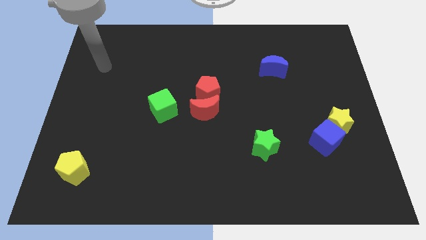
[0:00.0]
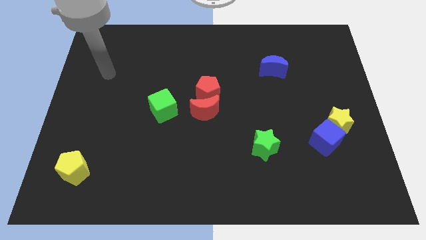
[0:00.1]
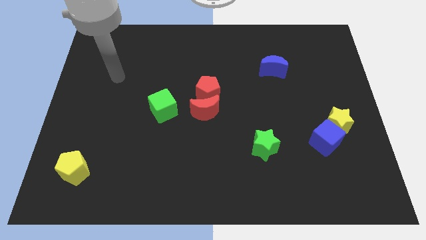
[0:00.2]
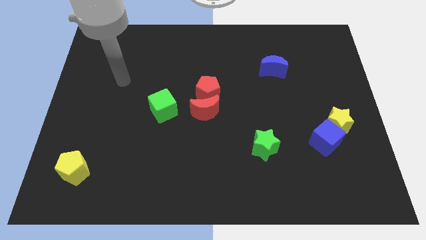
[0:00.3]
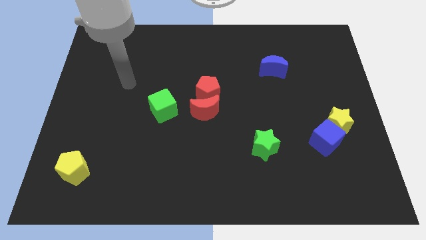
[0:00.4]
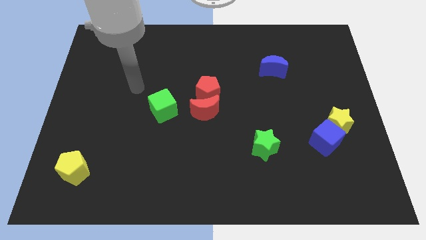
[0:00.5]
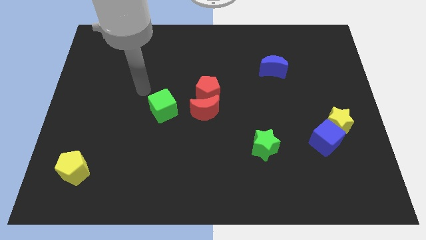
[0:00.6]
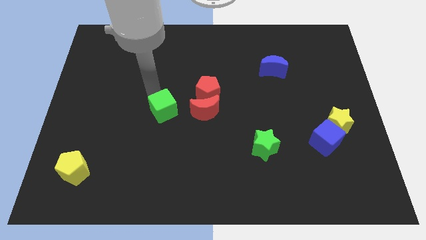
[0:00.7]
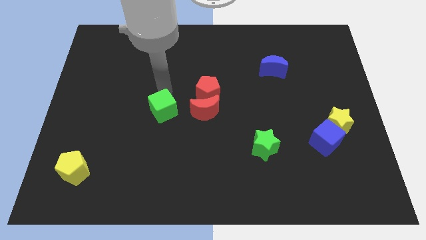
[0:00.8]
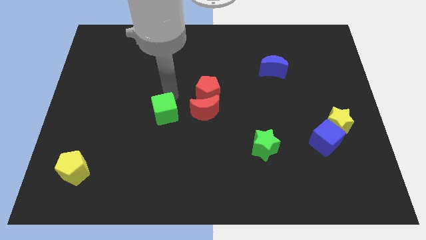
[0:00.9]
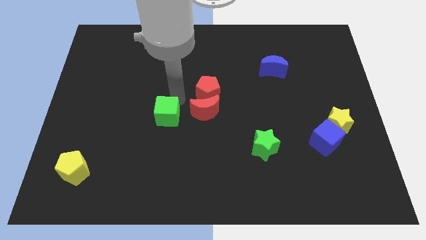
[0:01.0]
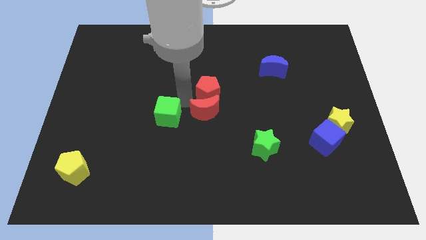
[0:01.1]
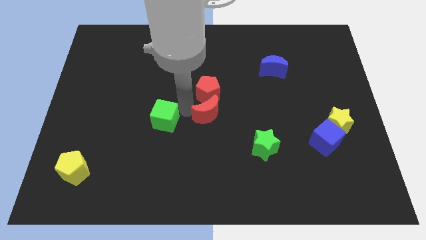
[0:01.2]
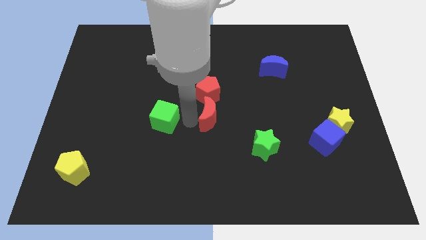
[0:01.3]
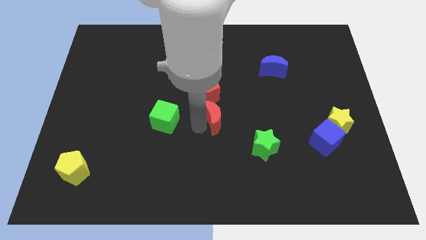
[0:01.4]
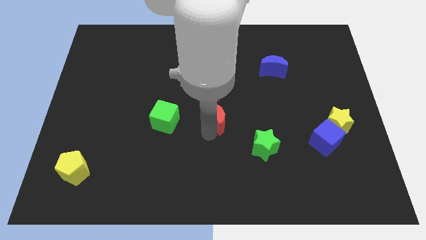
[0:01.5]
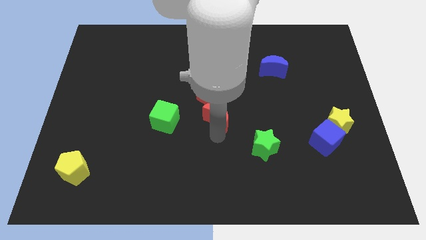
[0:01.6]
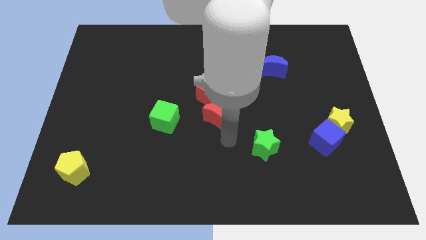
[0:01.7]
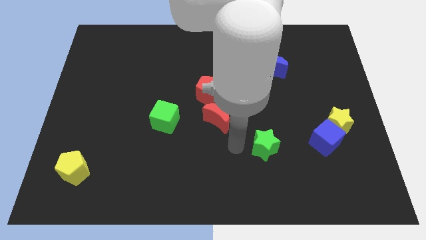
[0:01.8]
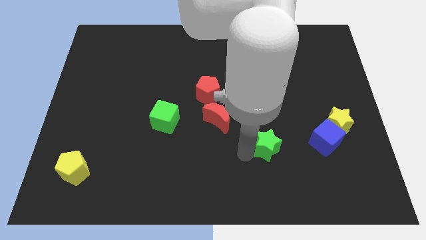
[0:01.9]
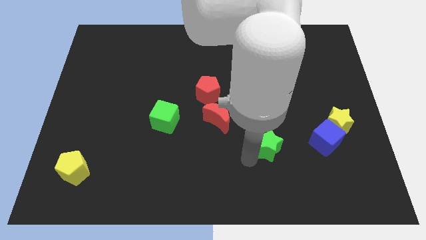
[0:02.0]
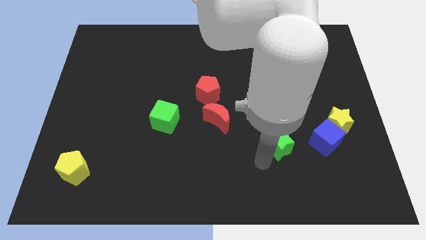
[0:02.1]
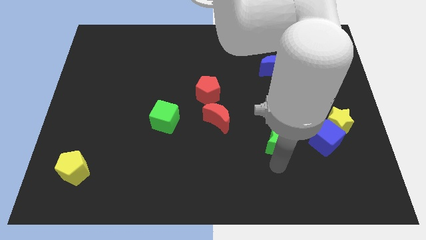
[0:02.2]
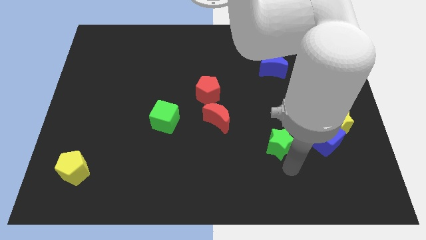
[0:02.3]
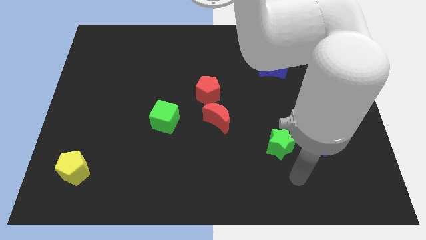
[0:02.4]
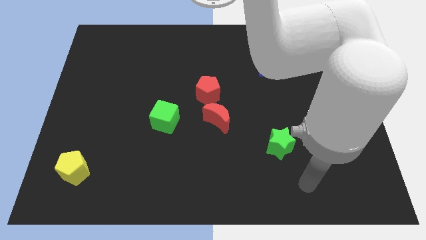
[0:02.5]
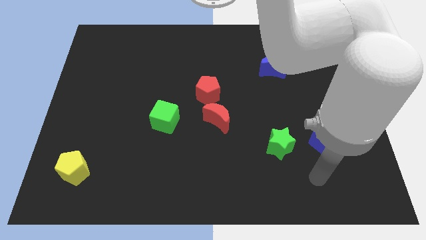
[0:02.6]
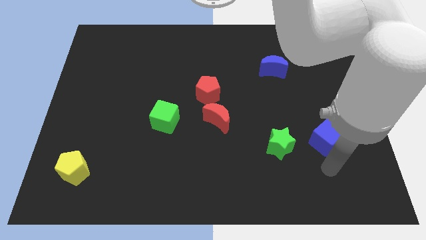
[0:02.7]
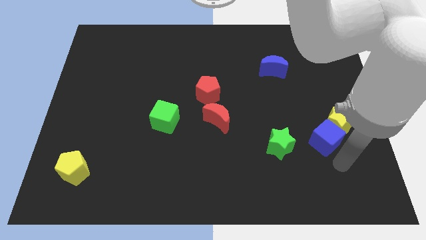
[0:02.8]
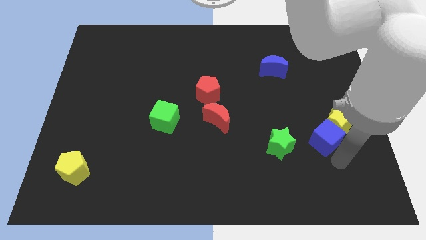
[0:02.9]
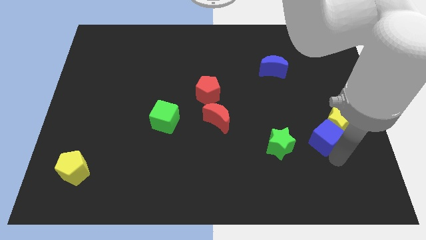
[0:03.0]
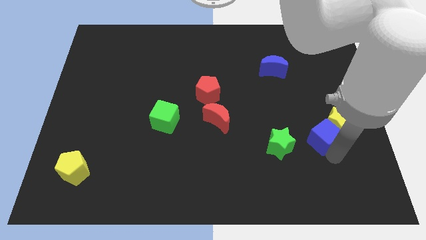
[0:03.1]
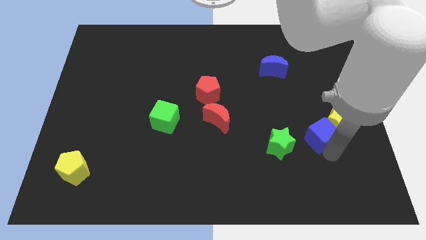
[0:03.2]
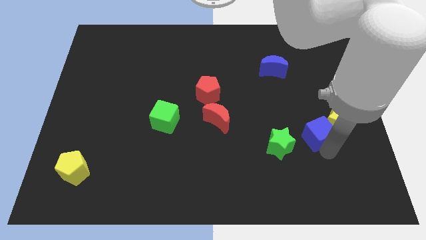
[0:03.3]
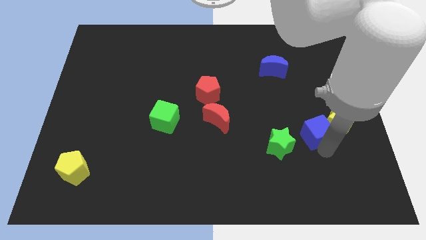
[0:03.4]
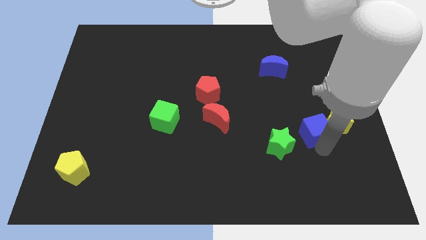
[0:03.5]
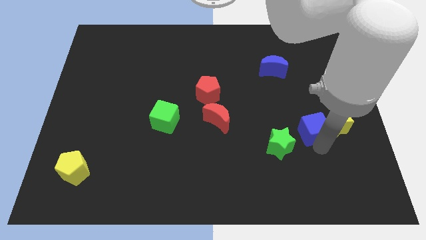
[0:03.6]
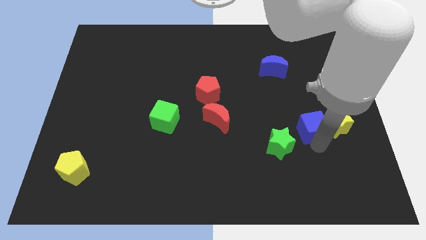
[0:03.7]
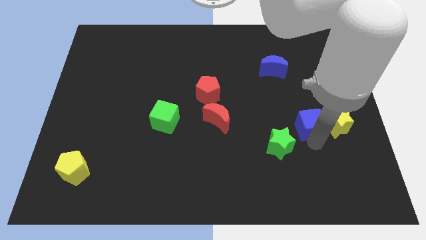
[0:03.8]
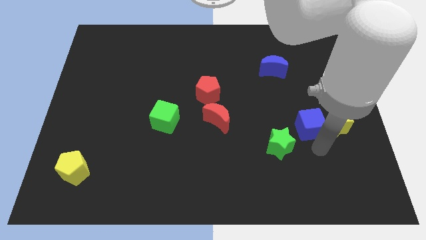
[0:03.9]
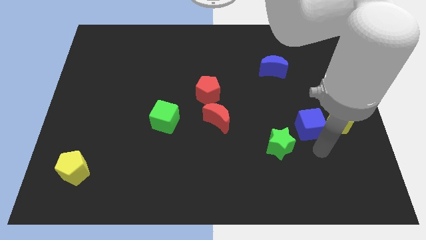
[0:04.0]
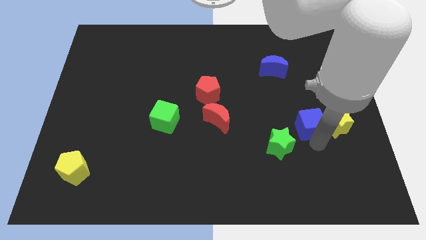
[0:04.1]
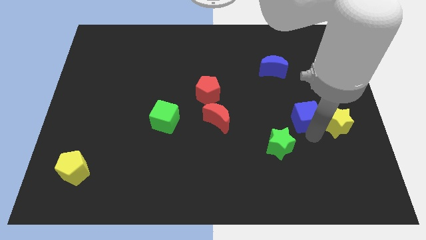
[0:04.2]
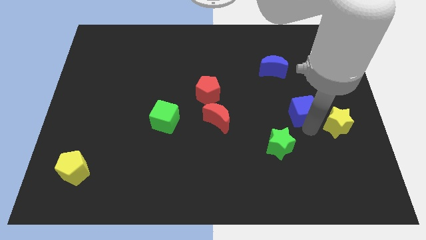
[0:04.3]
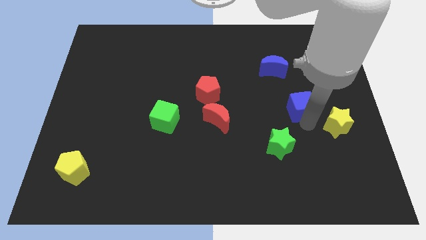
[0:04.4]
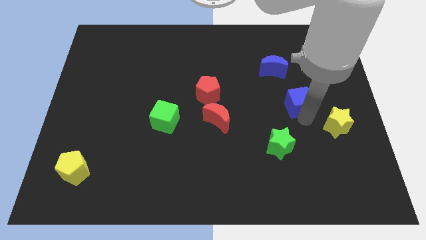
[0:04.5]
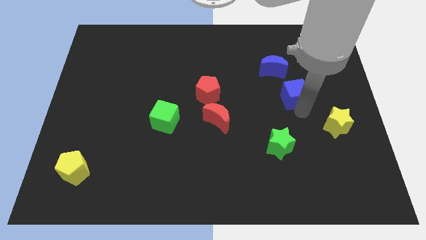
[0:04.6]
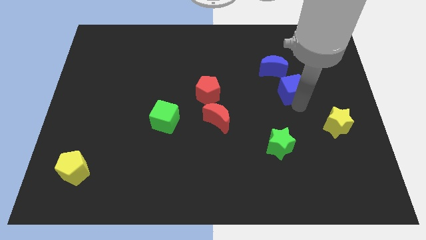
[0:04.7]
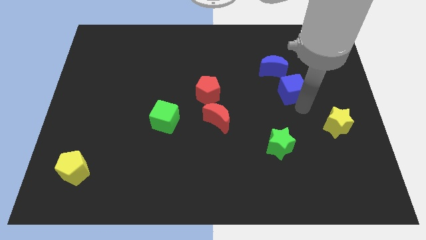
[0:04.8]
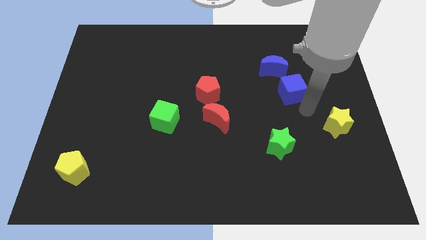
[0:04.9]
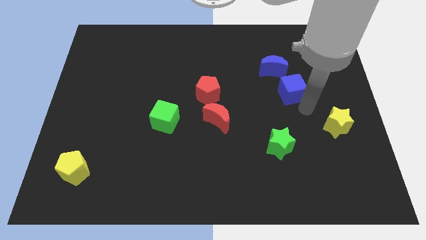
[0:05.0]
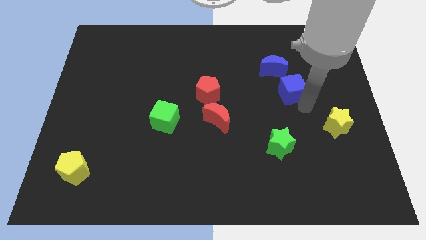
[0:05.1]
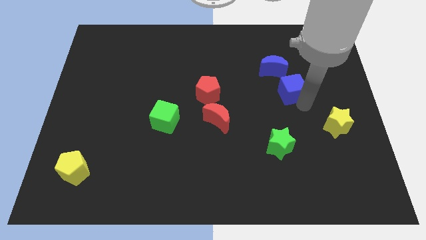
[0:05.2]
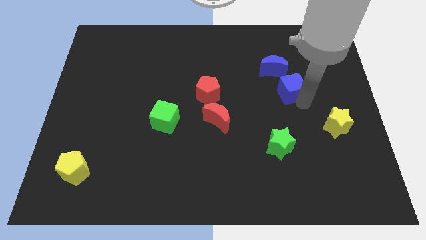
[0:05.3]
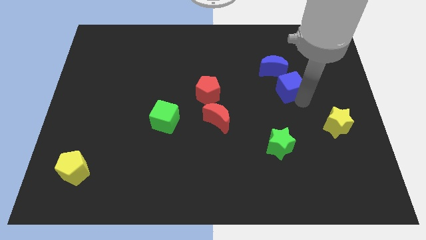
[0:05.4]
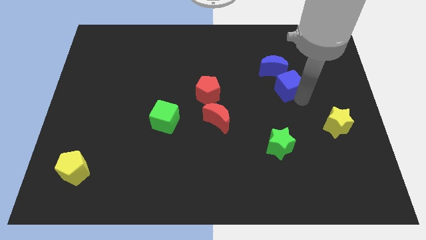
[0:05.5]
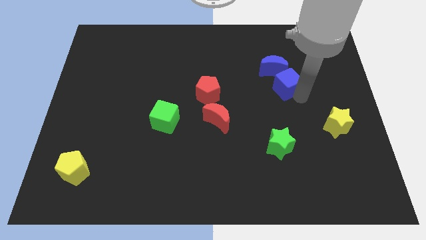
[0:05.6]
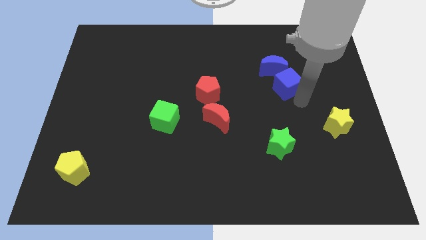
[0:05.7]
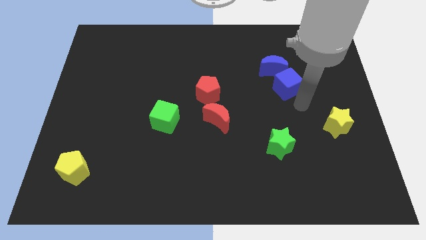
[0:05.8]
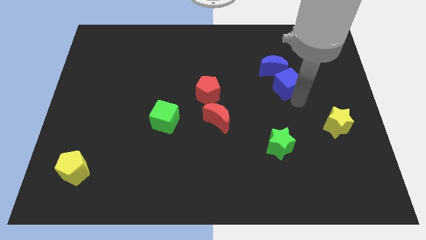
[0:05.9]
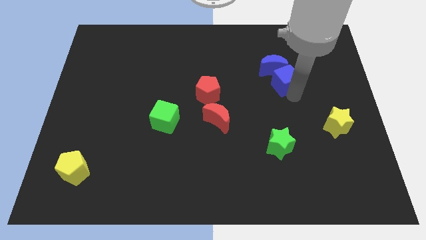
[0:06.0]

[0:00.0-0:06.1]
slide the blue cube next to the blue moon

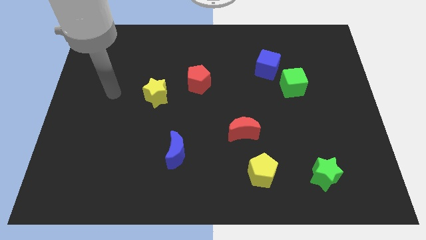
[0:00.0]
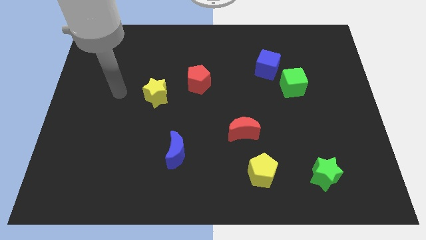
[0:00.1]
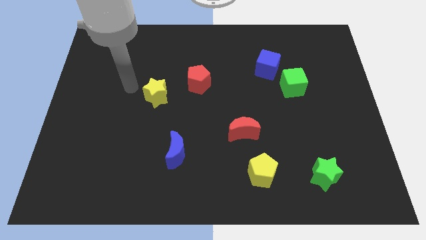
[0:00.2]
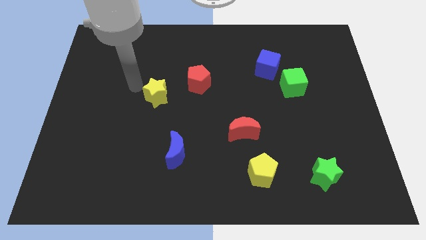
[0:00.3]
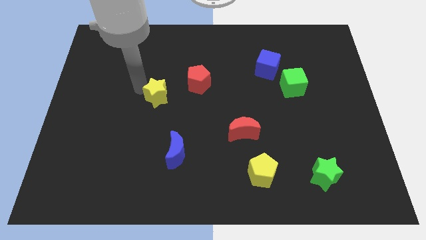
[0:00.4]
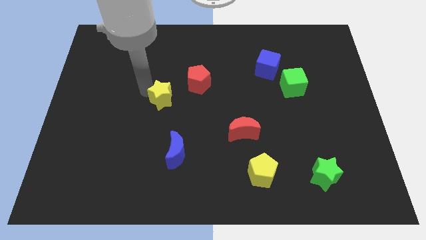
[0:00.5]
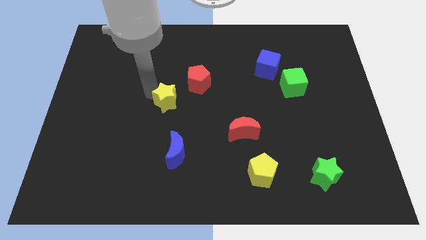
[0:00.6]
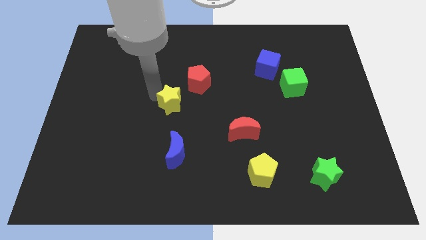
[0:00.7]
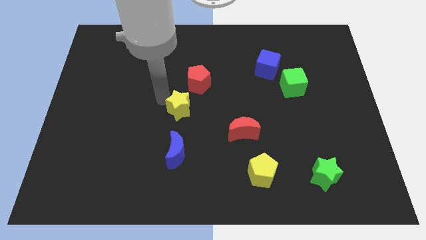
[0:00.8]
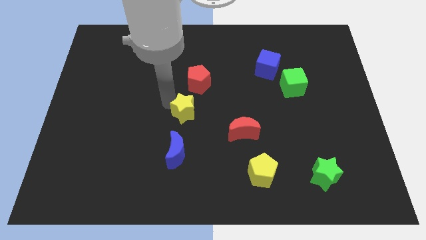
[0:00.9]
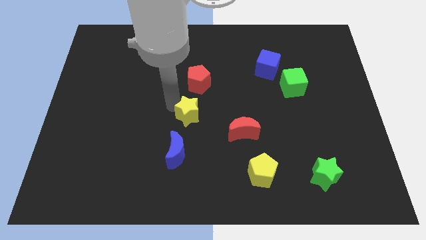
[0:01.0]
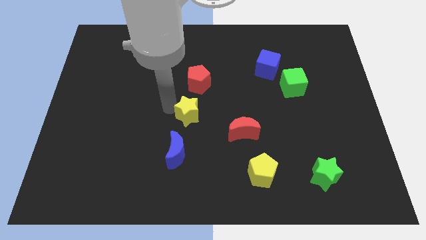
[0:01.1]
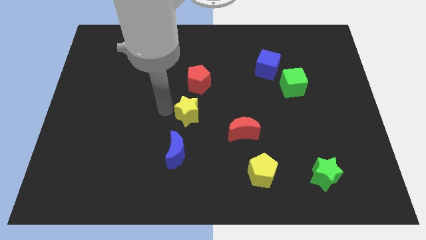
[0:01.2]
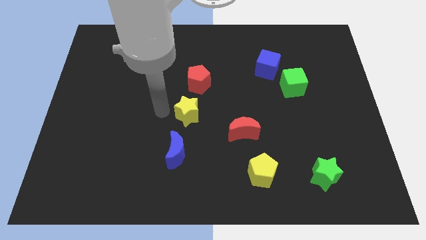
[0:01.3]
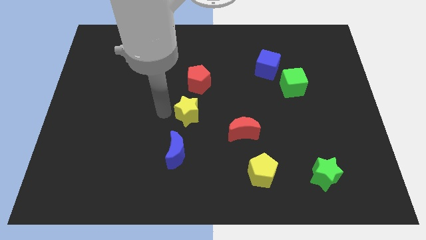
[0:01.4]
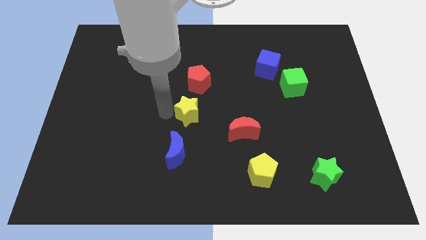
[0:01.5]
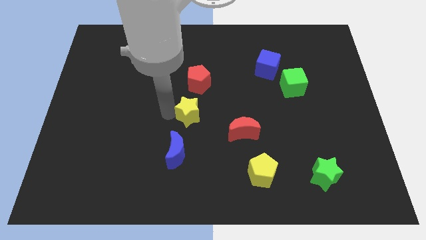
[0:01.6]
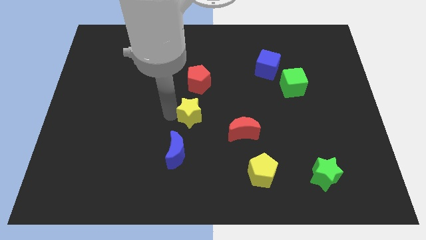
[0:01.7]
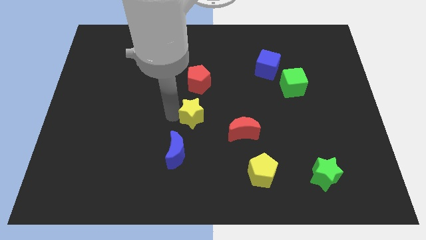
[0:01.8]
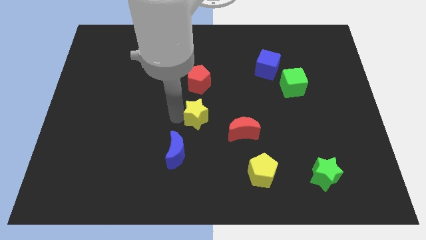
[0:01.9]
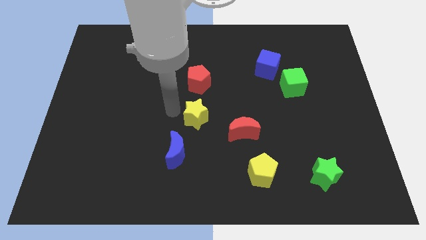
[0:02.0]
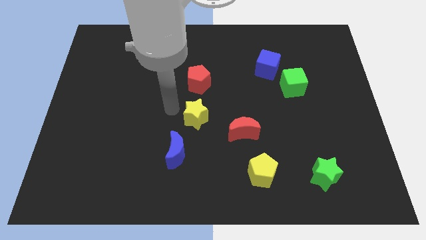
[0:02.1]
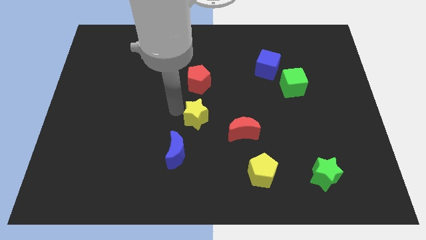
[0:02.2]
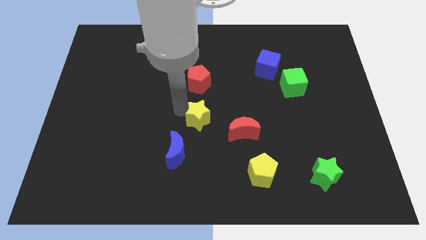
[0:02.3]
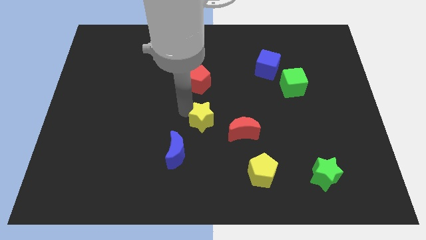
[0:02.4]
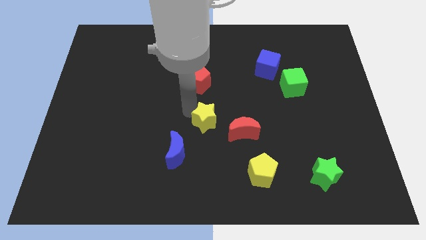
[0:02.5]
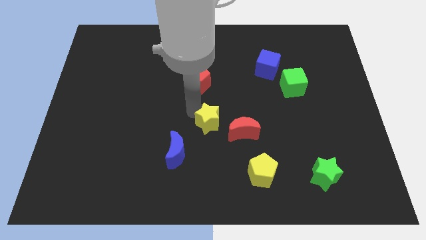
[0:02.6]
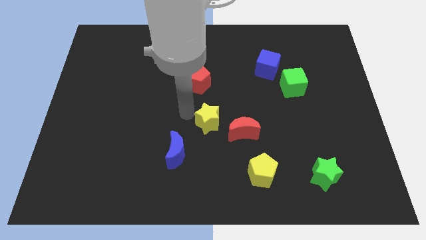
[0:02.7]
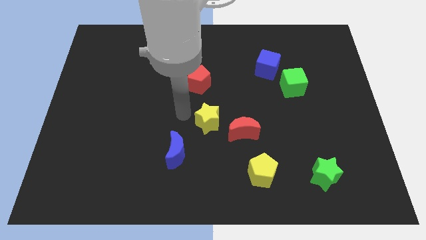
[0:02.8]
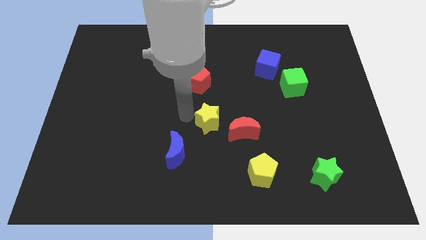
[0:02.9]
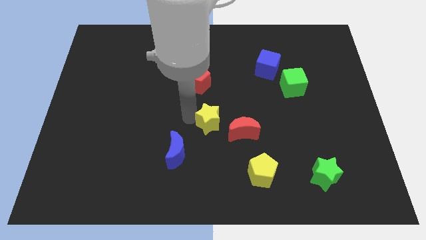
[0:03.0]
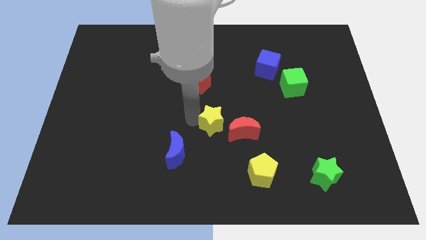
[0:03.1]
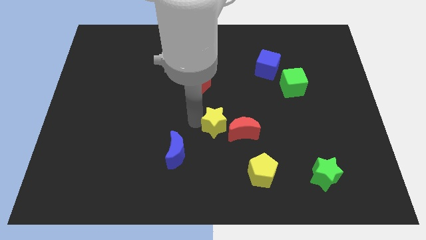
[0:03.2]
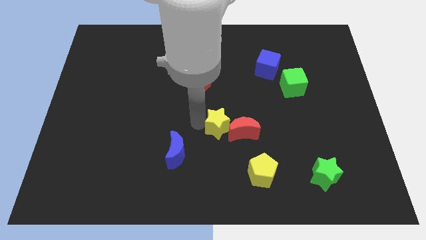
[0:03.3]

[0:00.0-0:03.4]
put the yellow star next to the red moon
